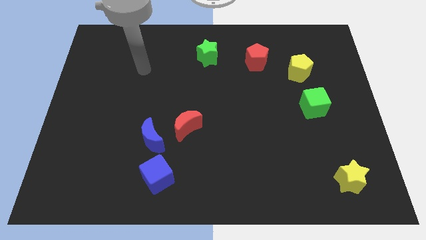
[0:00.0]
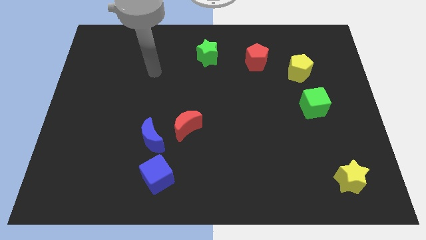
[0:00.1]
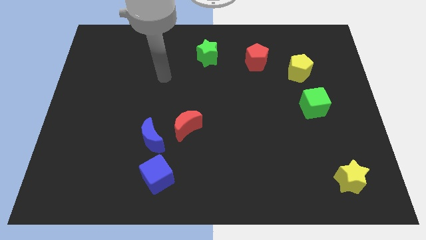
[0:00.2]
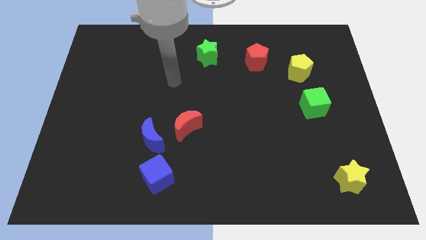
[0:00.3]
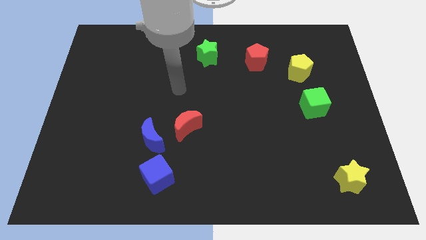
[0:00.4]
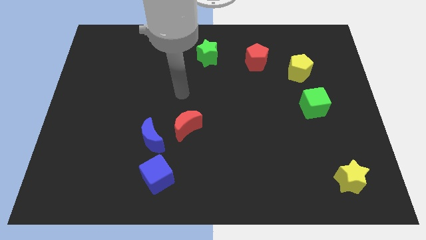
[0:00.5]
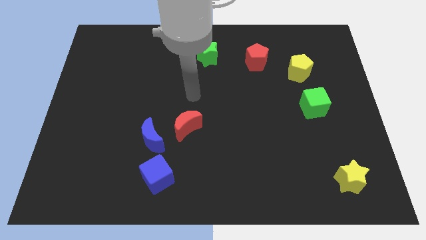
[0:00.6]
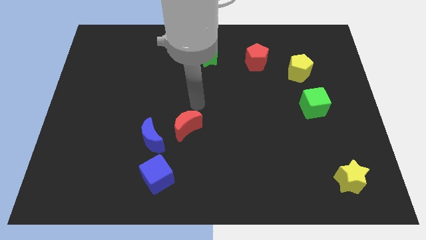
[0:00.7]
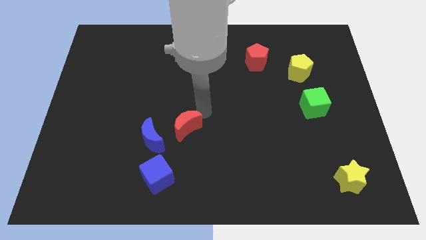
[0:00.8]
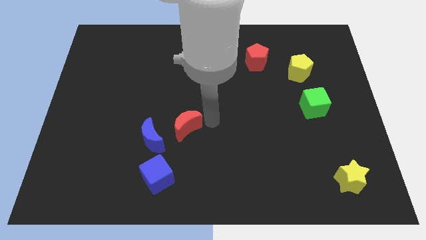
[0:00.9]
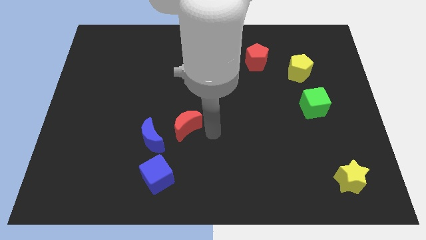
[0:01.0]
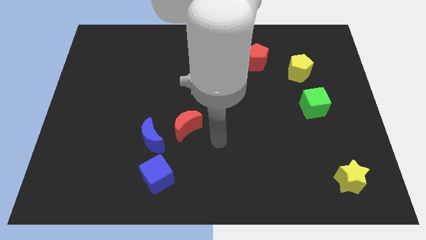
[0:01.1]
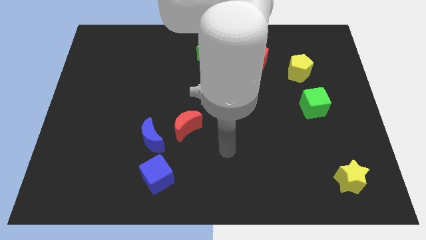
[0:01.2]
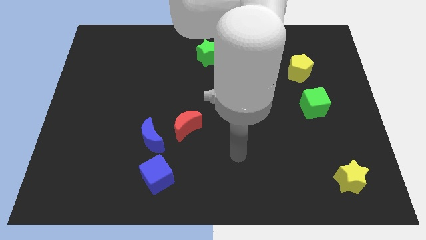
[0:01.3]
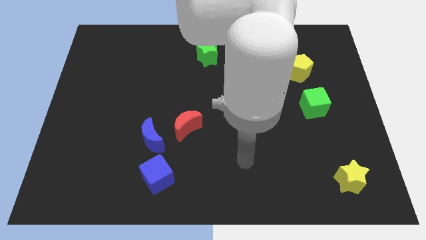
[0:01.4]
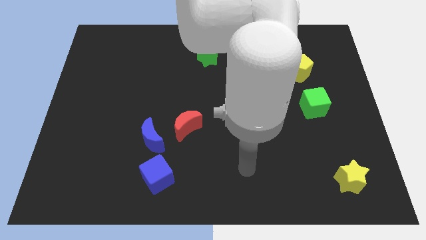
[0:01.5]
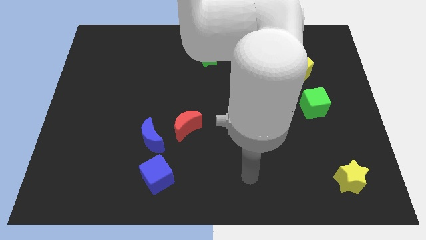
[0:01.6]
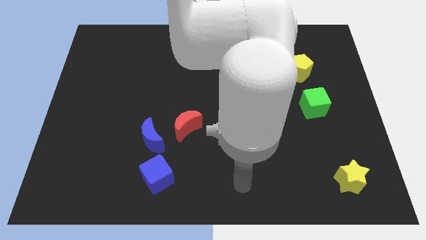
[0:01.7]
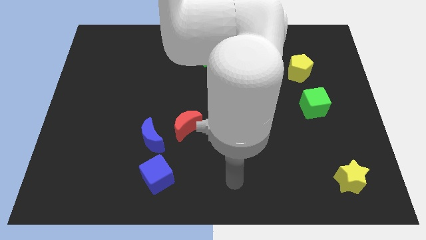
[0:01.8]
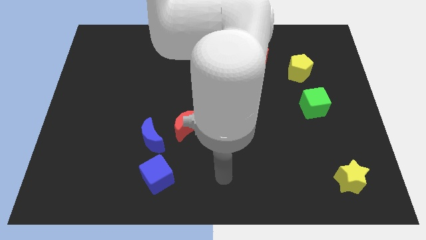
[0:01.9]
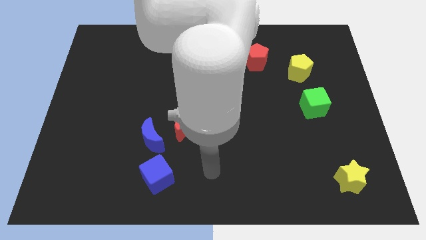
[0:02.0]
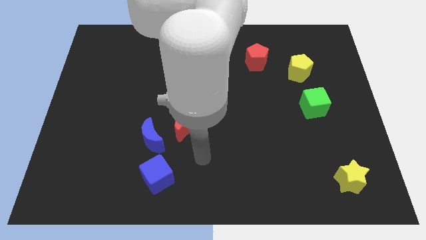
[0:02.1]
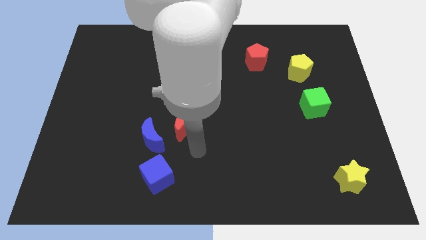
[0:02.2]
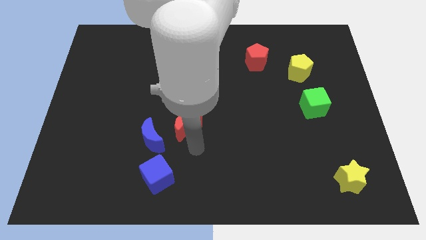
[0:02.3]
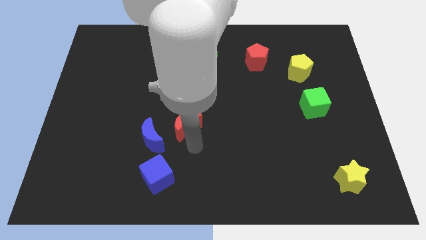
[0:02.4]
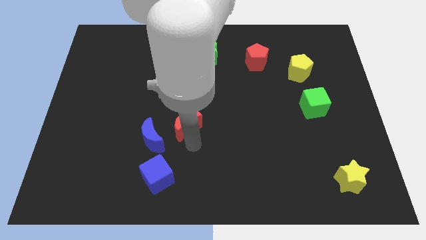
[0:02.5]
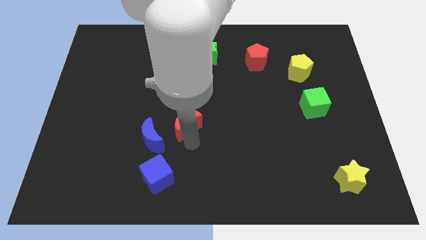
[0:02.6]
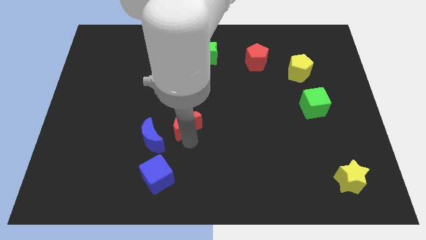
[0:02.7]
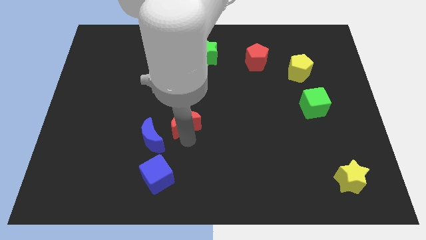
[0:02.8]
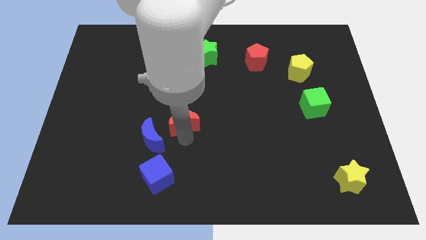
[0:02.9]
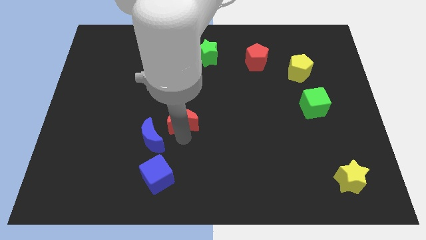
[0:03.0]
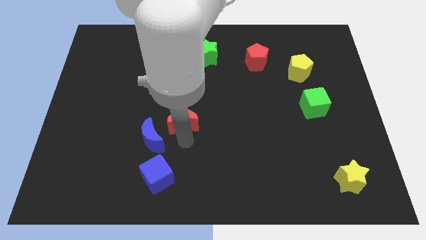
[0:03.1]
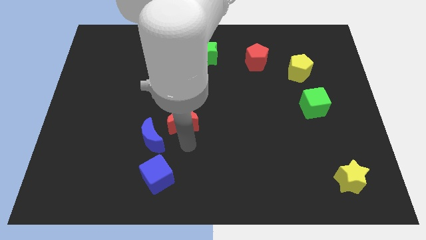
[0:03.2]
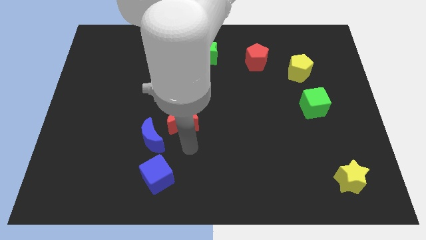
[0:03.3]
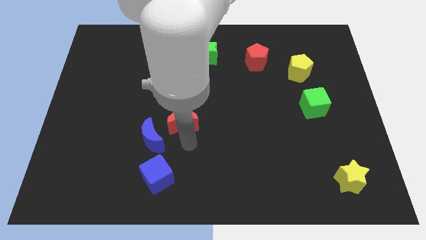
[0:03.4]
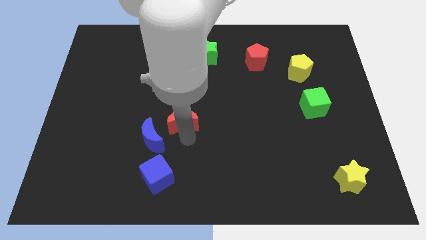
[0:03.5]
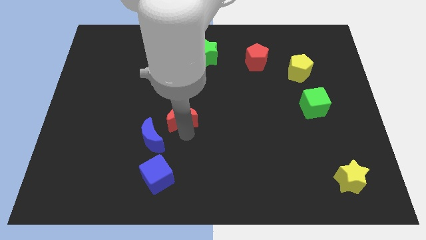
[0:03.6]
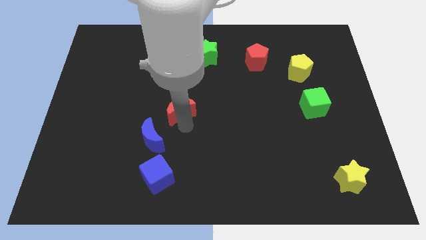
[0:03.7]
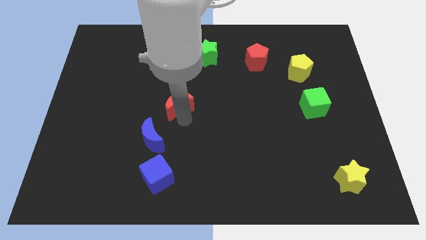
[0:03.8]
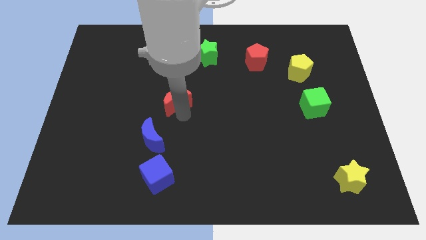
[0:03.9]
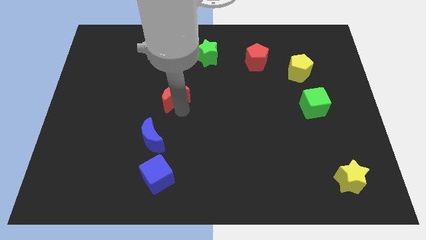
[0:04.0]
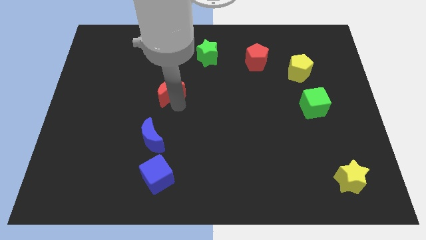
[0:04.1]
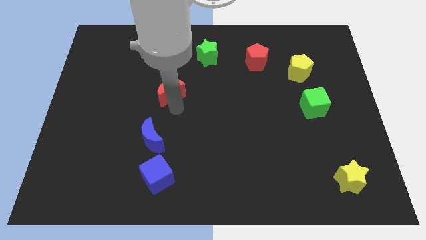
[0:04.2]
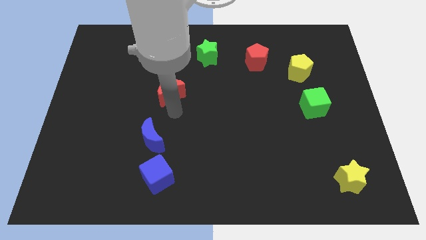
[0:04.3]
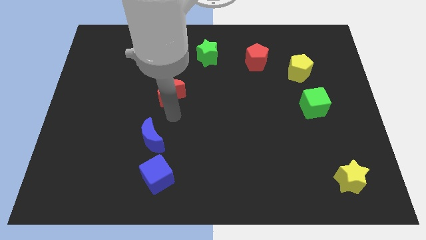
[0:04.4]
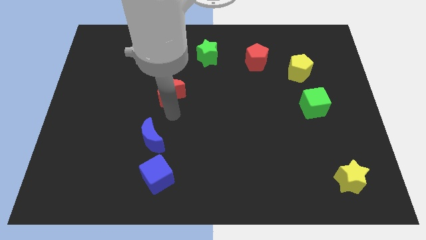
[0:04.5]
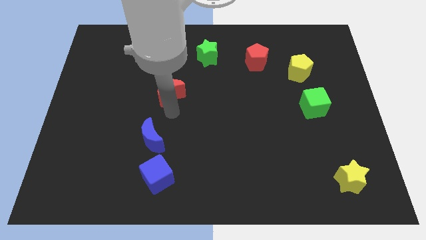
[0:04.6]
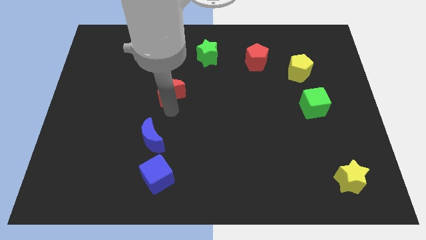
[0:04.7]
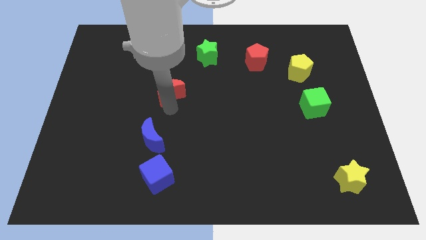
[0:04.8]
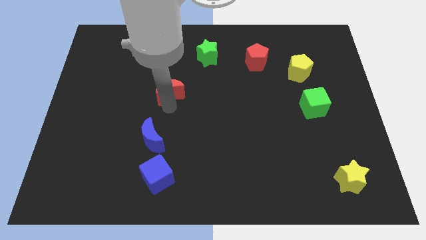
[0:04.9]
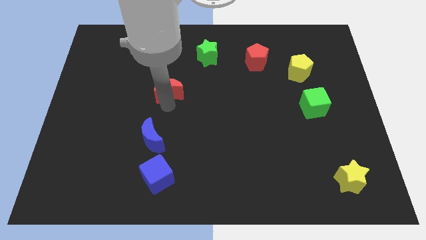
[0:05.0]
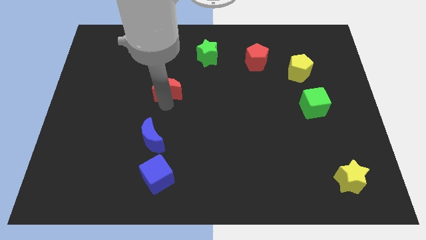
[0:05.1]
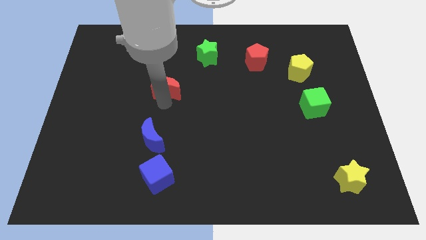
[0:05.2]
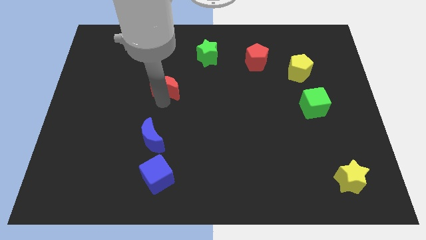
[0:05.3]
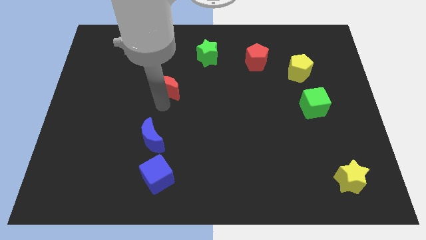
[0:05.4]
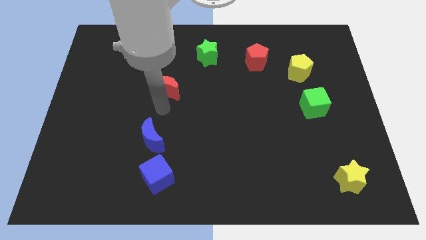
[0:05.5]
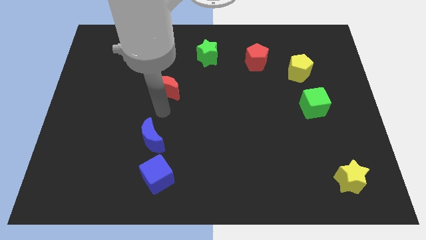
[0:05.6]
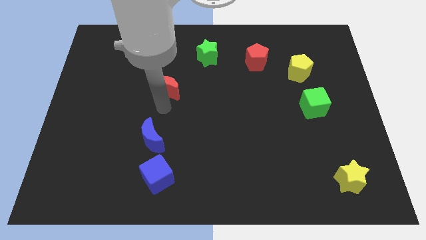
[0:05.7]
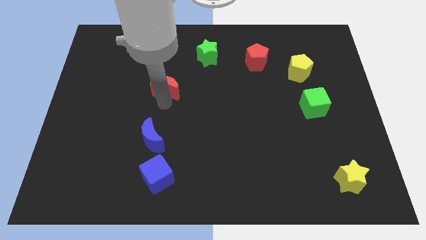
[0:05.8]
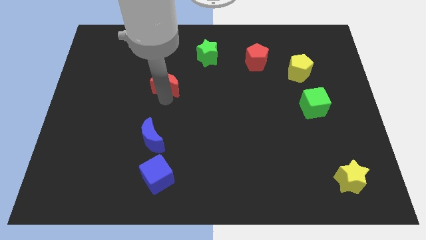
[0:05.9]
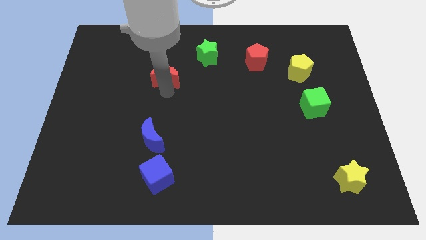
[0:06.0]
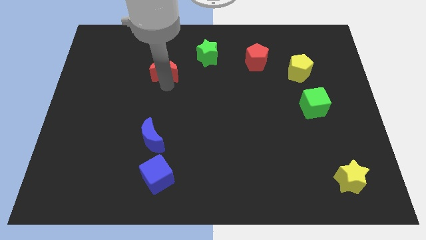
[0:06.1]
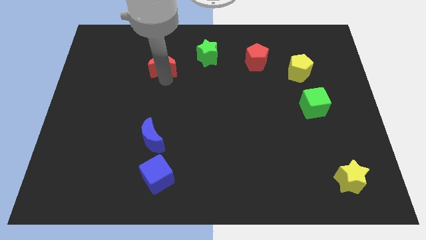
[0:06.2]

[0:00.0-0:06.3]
move the red moon to the left of the green star

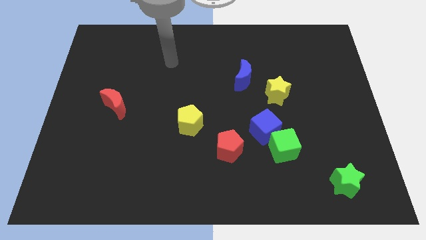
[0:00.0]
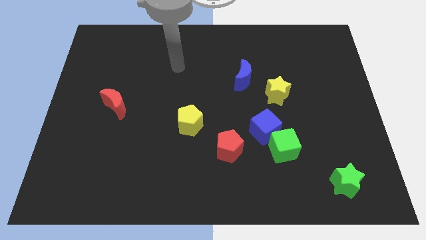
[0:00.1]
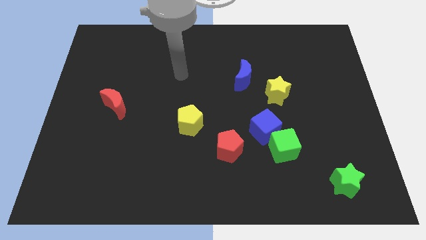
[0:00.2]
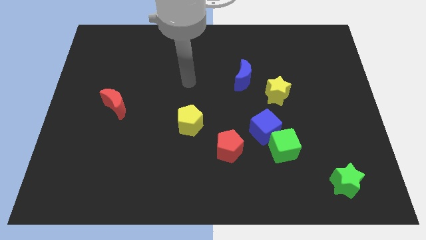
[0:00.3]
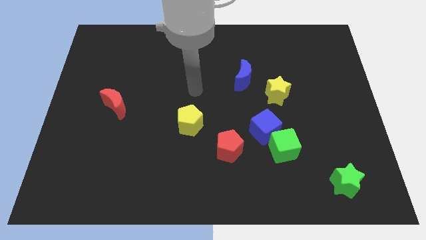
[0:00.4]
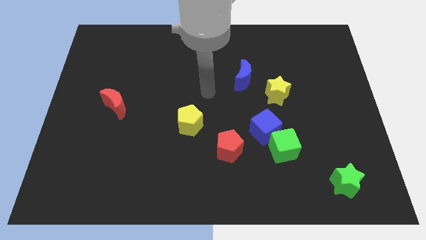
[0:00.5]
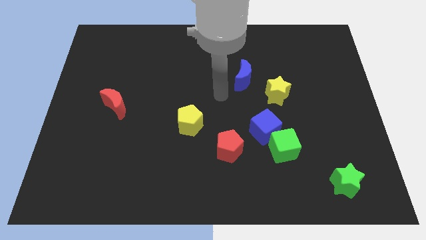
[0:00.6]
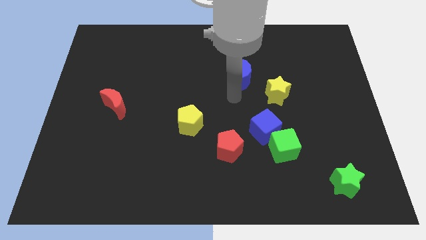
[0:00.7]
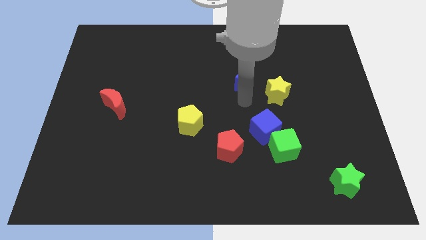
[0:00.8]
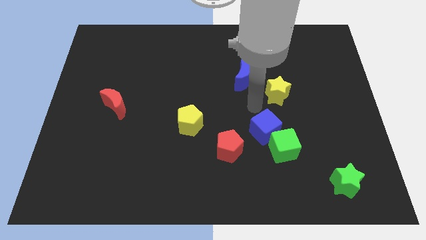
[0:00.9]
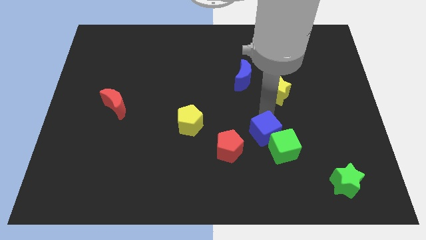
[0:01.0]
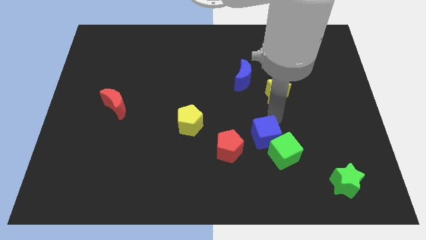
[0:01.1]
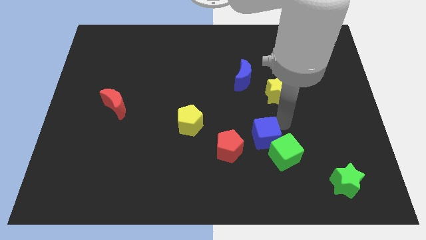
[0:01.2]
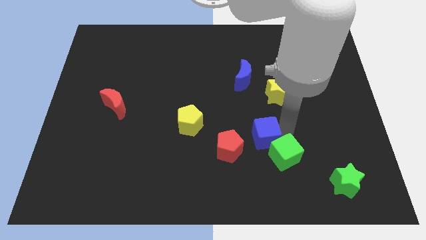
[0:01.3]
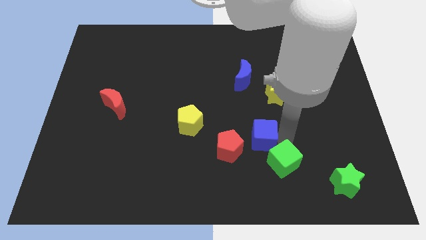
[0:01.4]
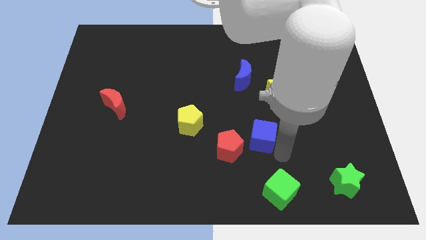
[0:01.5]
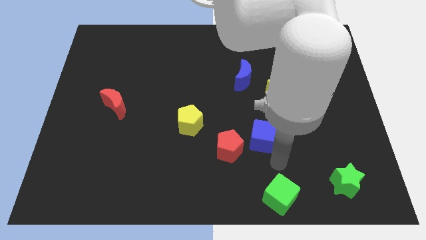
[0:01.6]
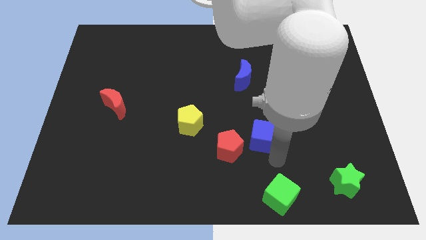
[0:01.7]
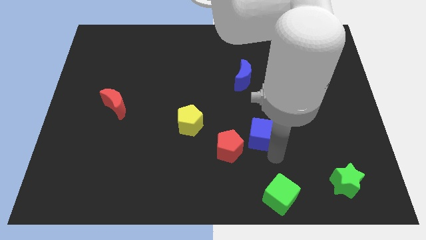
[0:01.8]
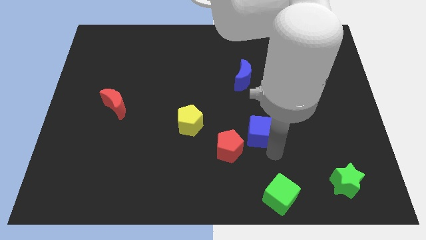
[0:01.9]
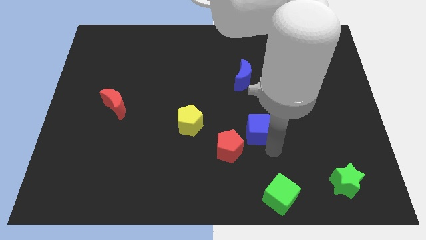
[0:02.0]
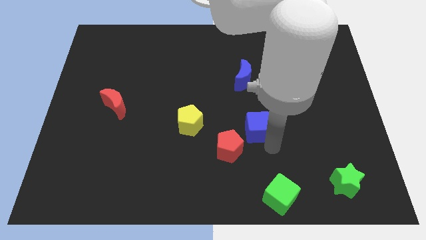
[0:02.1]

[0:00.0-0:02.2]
push the blue cube to the bottom of the blue moon
